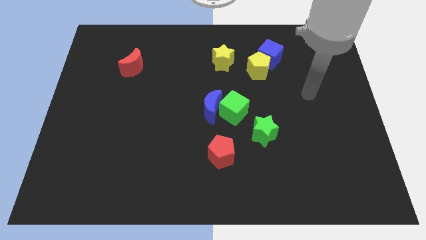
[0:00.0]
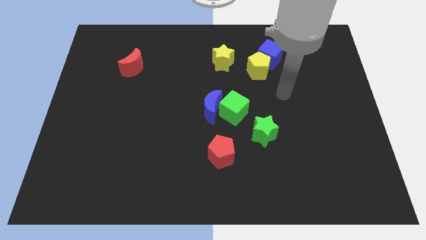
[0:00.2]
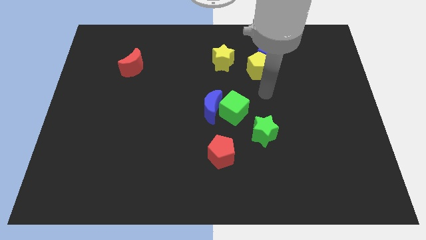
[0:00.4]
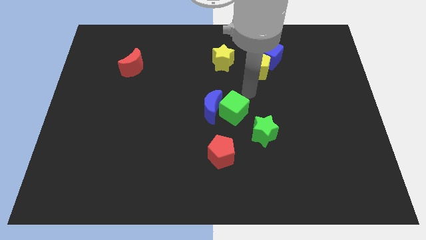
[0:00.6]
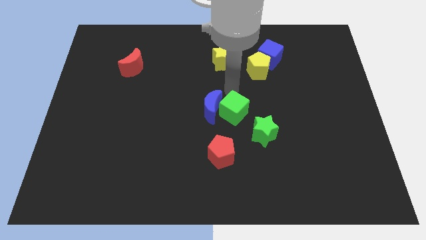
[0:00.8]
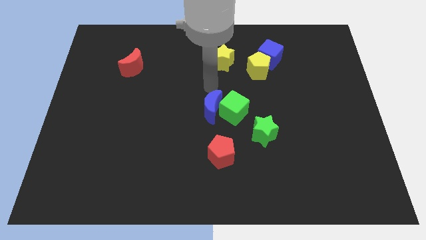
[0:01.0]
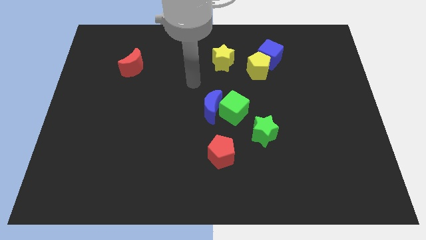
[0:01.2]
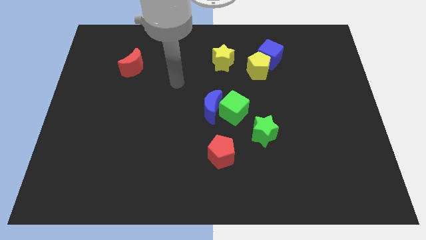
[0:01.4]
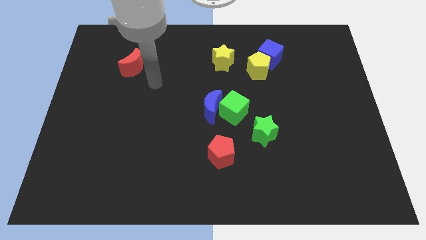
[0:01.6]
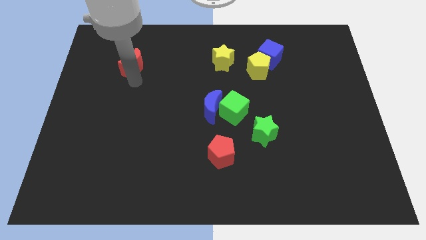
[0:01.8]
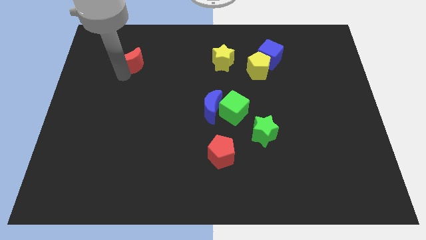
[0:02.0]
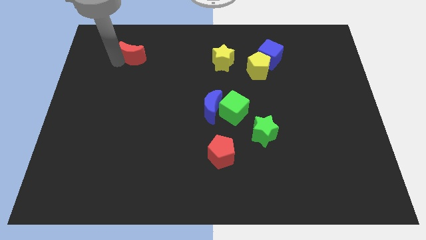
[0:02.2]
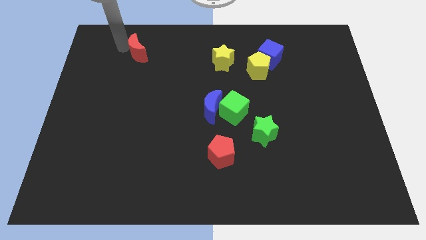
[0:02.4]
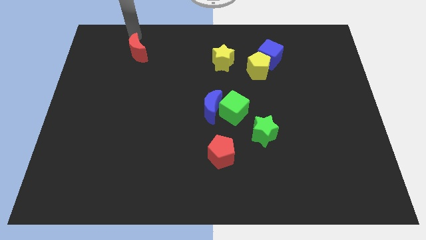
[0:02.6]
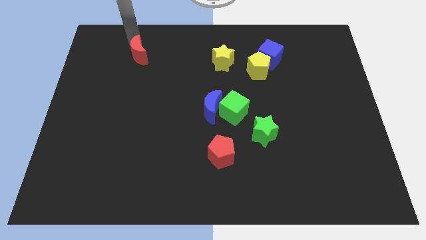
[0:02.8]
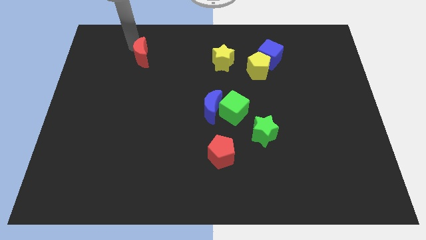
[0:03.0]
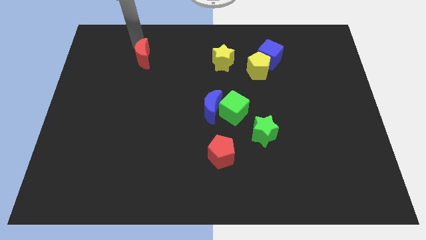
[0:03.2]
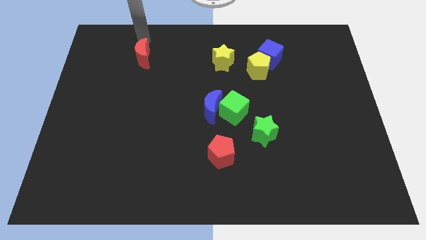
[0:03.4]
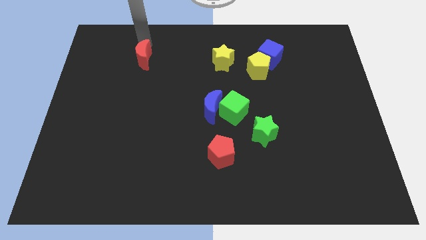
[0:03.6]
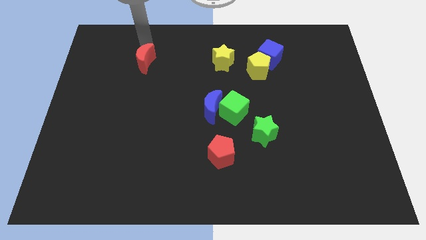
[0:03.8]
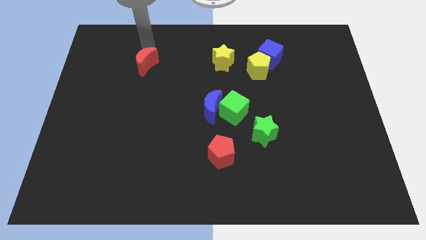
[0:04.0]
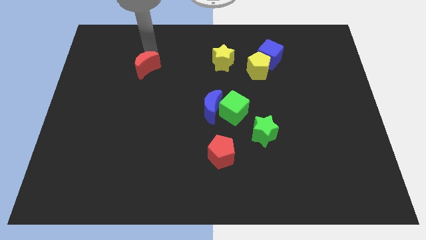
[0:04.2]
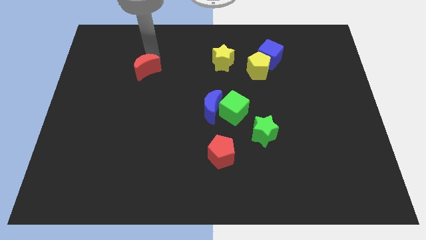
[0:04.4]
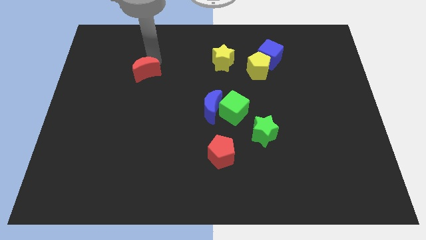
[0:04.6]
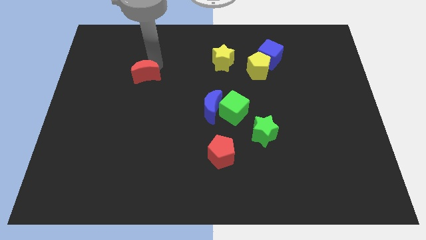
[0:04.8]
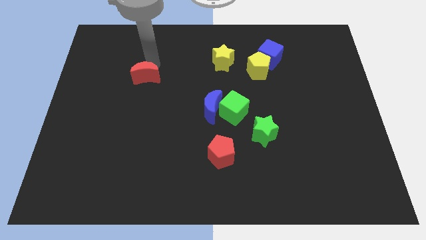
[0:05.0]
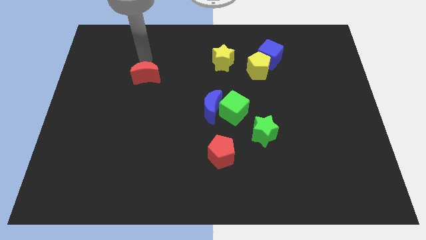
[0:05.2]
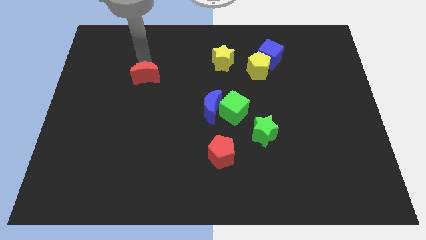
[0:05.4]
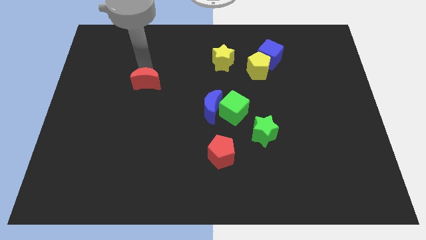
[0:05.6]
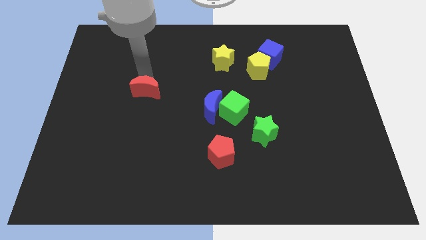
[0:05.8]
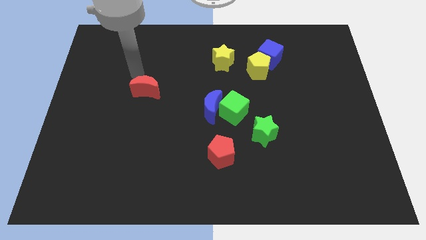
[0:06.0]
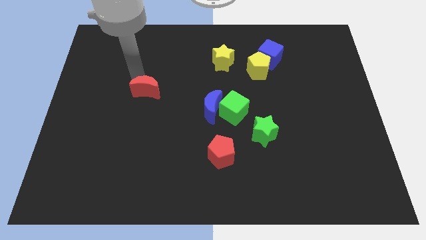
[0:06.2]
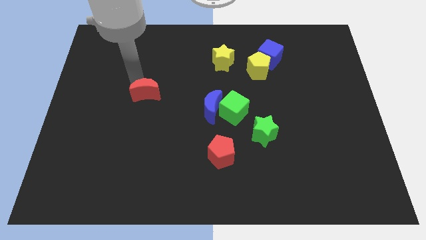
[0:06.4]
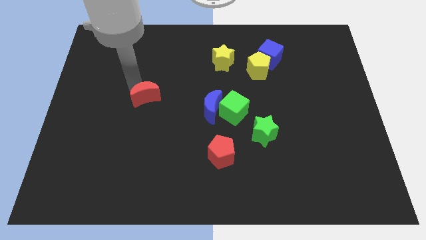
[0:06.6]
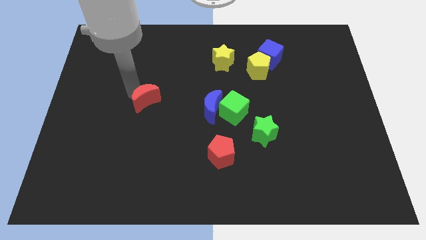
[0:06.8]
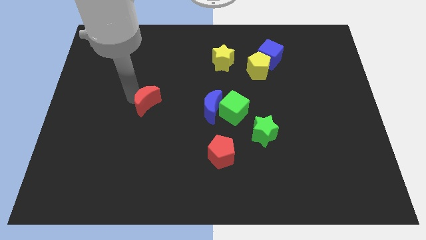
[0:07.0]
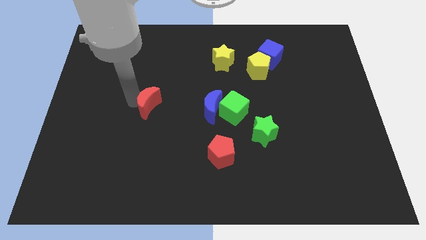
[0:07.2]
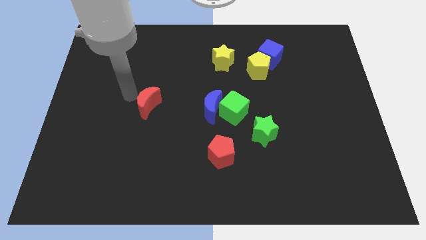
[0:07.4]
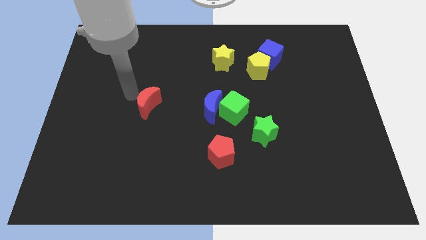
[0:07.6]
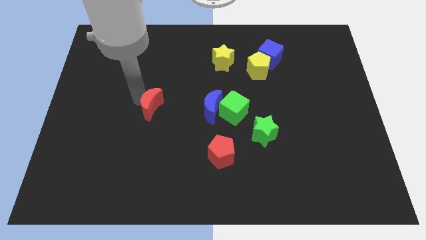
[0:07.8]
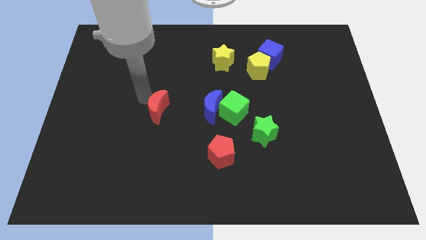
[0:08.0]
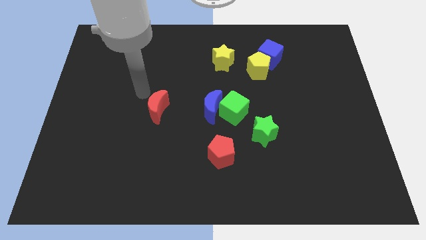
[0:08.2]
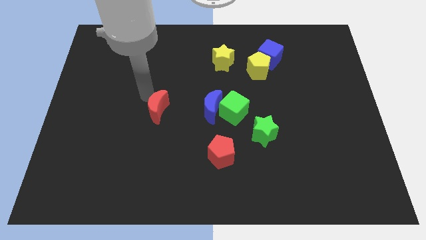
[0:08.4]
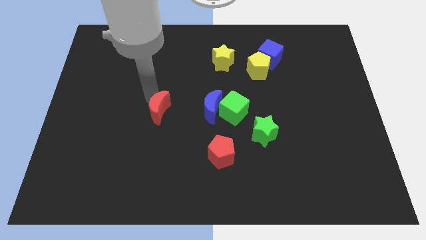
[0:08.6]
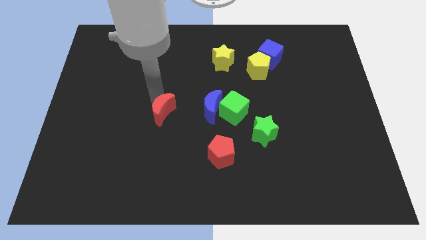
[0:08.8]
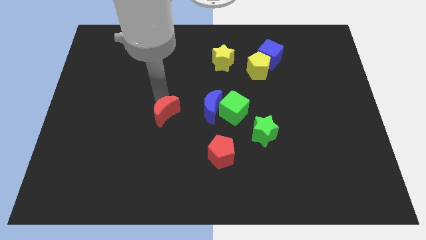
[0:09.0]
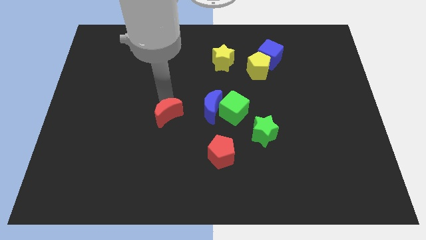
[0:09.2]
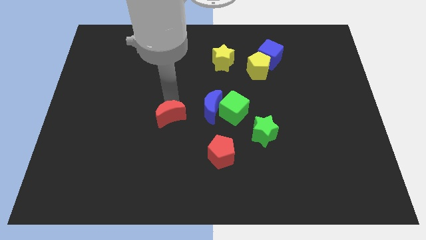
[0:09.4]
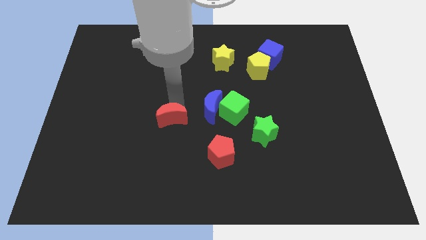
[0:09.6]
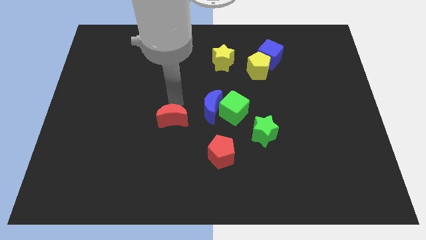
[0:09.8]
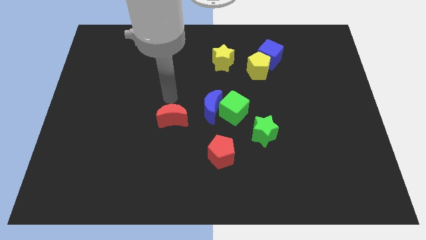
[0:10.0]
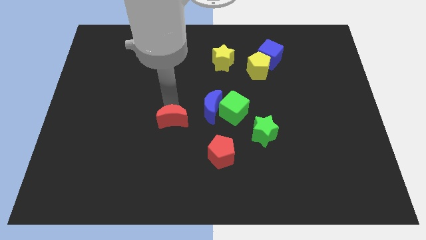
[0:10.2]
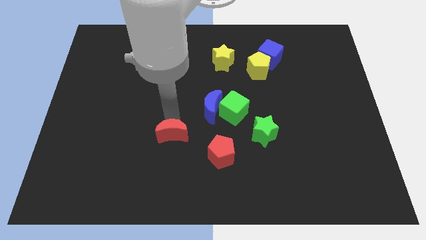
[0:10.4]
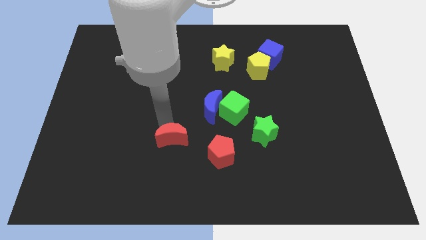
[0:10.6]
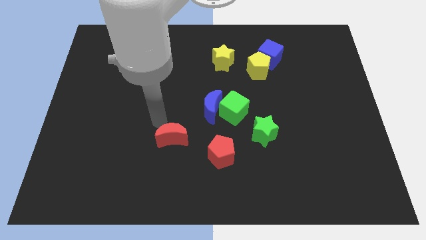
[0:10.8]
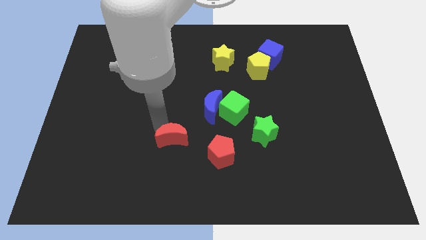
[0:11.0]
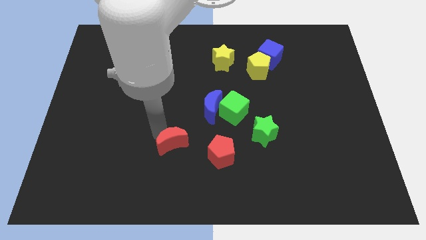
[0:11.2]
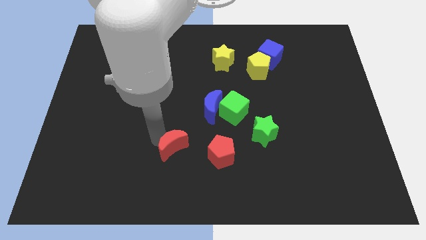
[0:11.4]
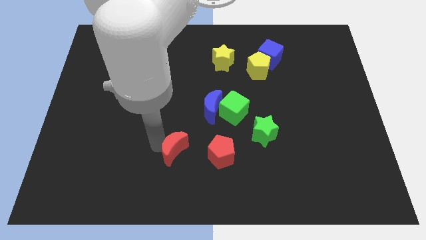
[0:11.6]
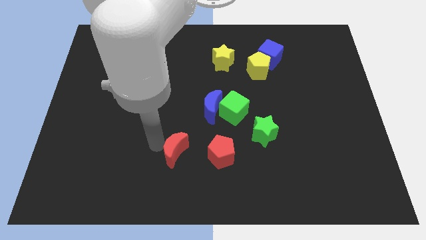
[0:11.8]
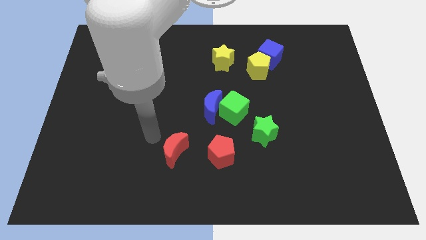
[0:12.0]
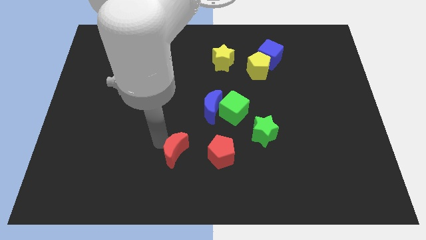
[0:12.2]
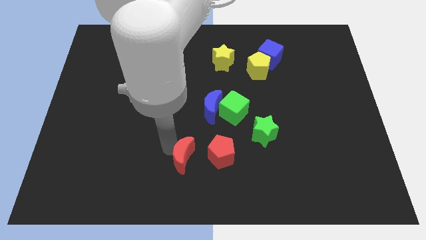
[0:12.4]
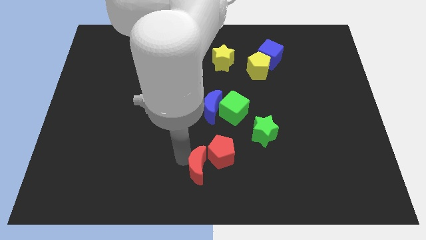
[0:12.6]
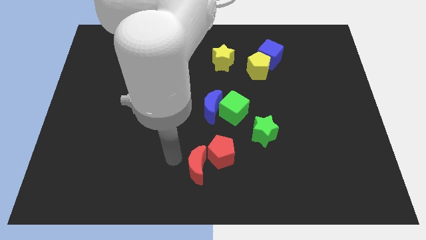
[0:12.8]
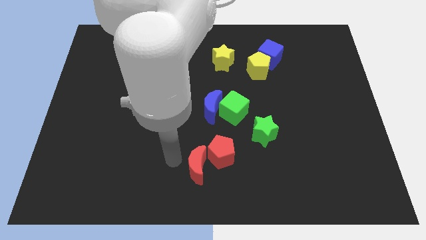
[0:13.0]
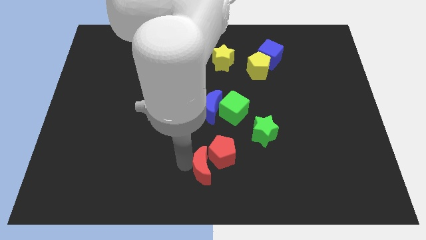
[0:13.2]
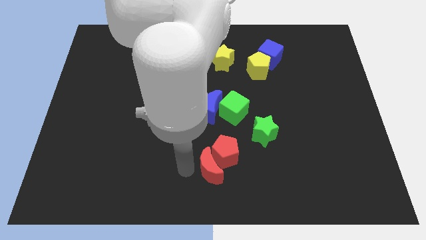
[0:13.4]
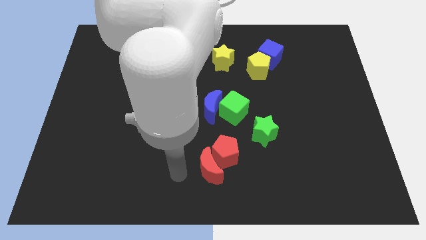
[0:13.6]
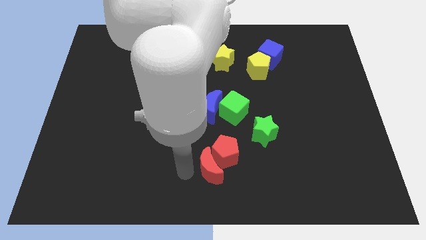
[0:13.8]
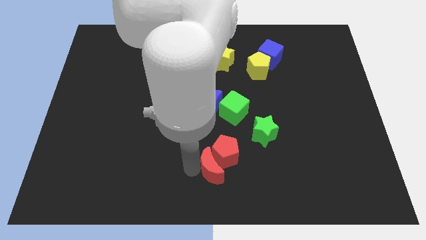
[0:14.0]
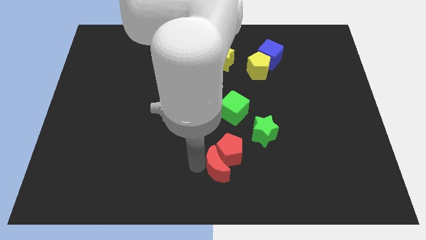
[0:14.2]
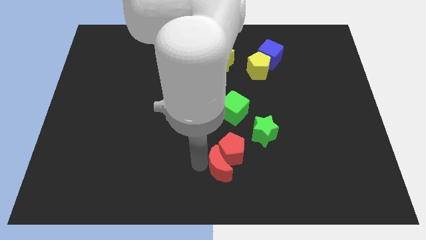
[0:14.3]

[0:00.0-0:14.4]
slide the red moon to the bottom side of the green cube

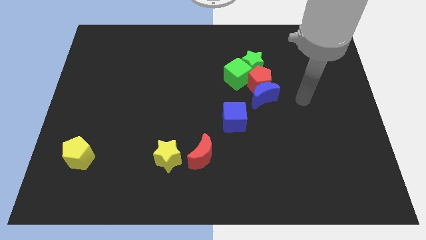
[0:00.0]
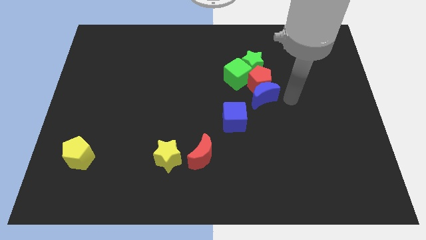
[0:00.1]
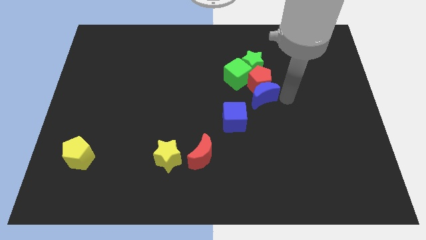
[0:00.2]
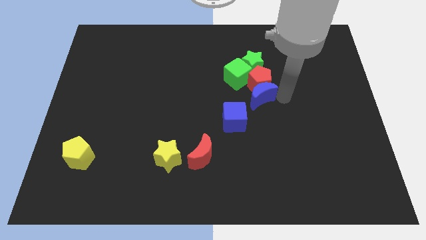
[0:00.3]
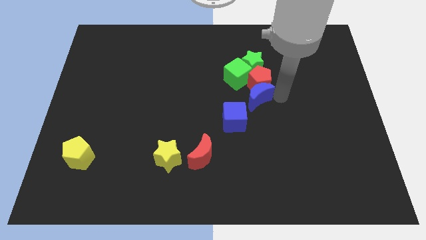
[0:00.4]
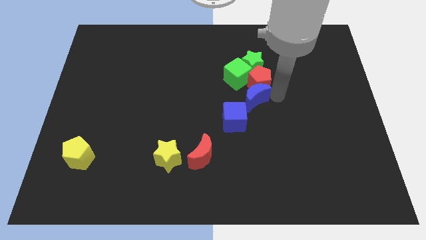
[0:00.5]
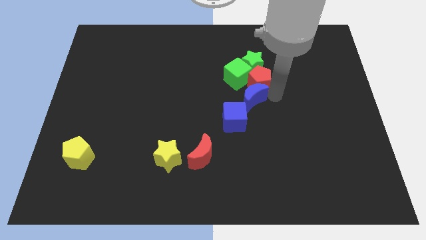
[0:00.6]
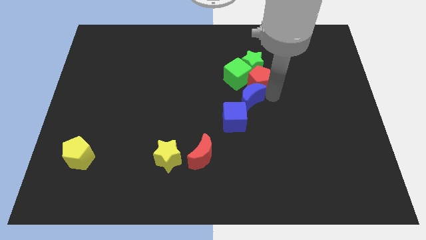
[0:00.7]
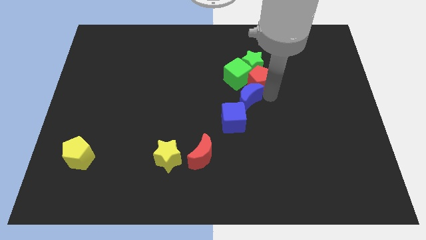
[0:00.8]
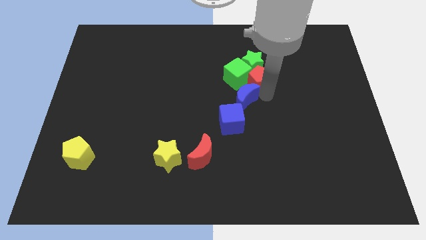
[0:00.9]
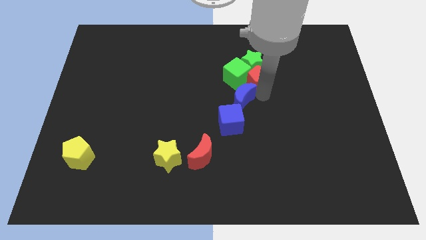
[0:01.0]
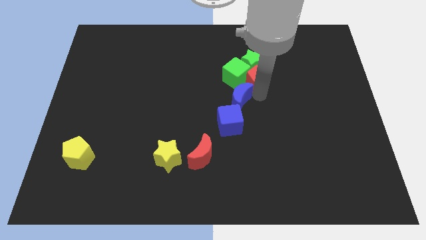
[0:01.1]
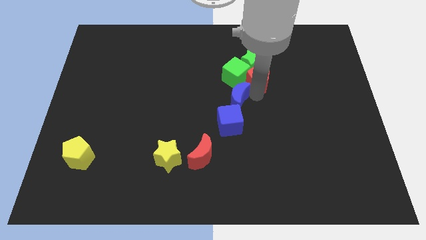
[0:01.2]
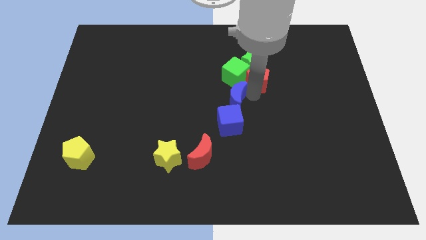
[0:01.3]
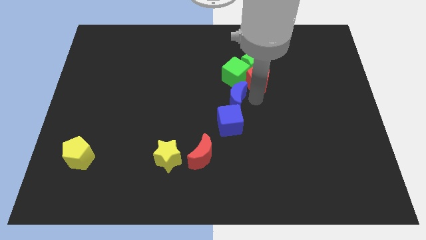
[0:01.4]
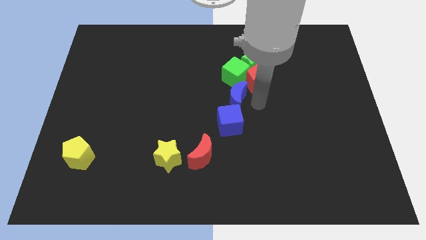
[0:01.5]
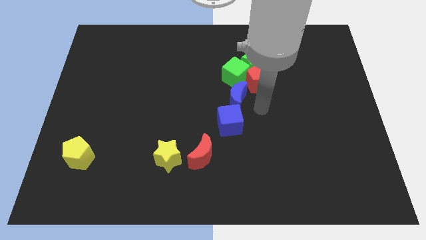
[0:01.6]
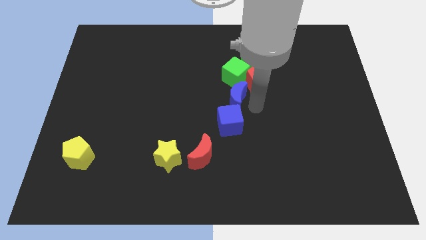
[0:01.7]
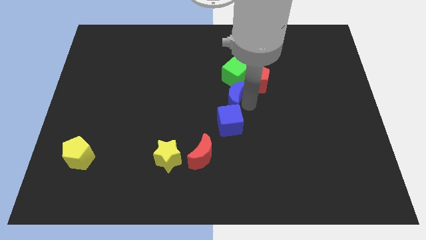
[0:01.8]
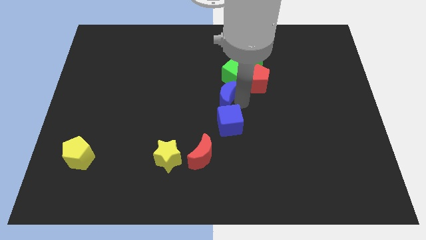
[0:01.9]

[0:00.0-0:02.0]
slide the blue moon to the bottom left of the green cube
